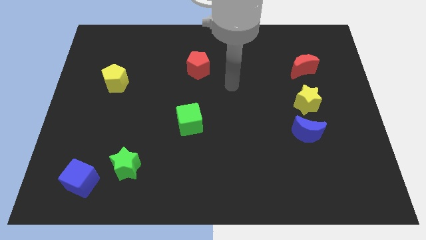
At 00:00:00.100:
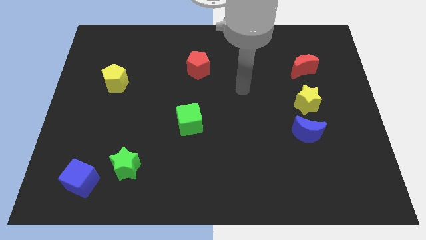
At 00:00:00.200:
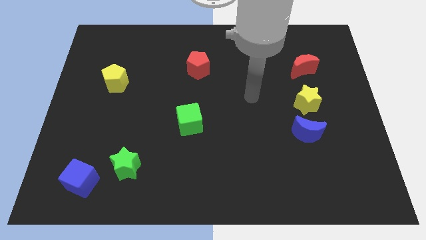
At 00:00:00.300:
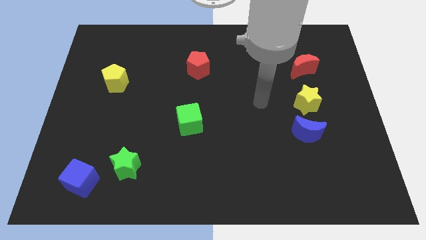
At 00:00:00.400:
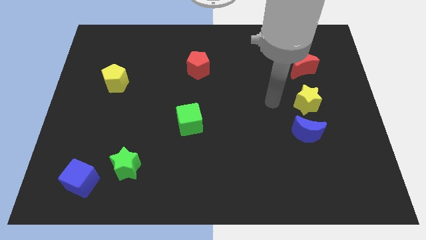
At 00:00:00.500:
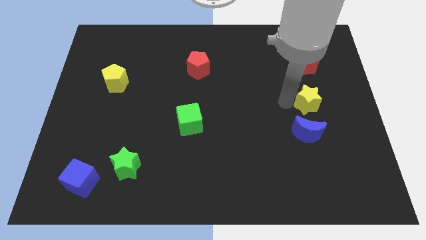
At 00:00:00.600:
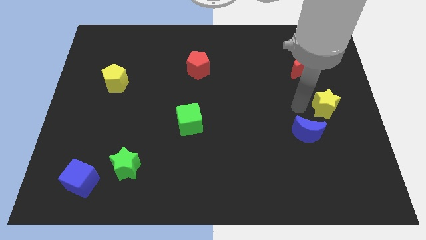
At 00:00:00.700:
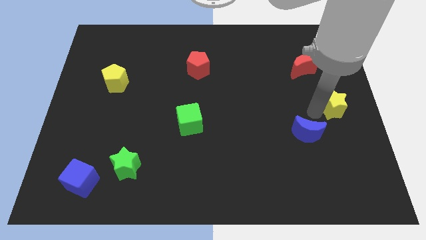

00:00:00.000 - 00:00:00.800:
move the blue moon away from the yellow star

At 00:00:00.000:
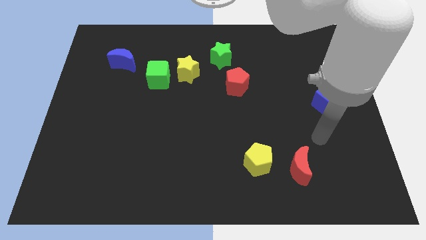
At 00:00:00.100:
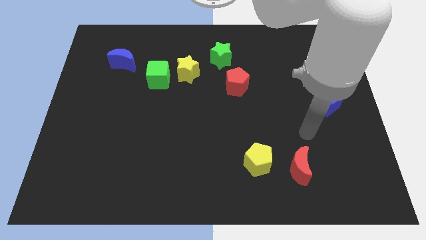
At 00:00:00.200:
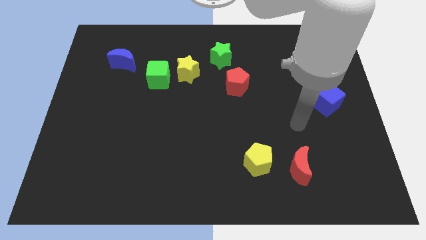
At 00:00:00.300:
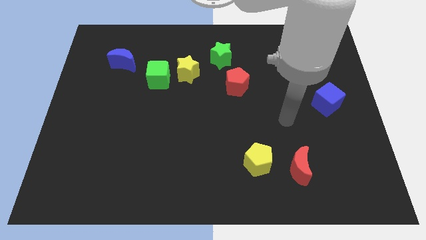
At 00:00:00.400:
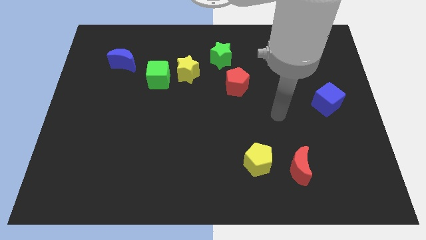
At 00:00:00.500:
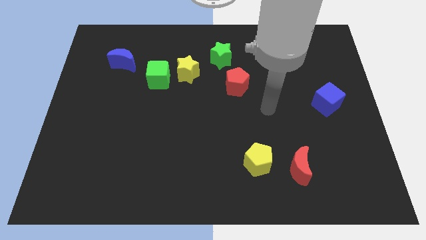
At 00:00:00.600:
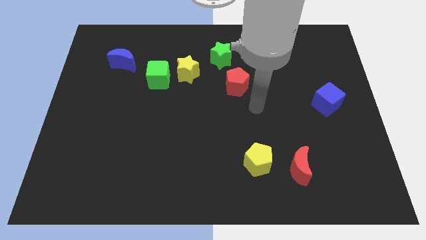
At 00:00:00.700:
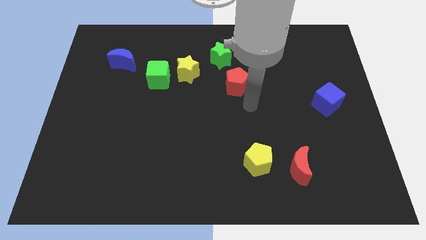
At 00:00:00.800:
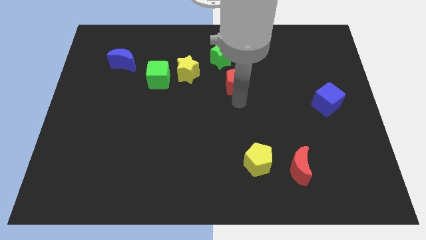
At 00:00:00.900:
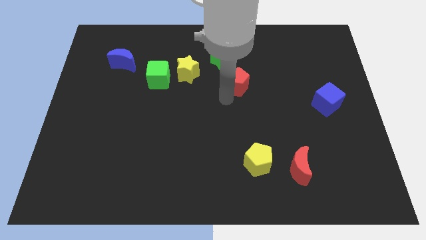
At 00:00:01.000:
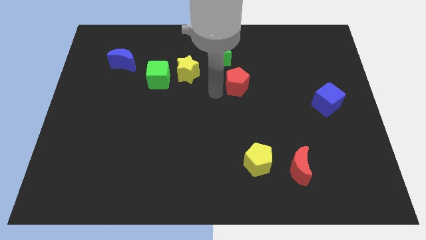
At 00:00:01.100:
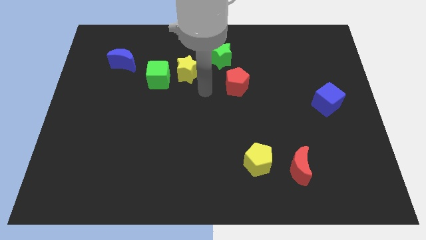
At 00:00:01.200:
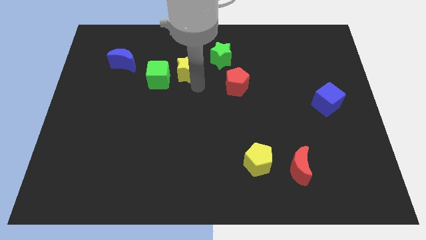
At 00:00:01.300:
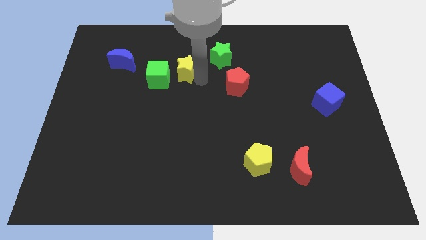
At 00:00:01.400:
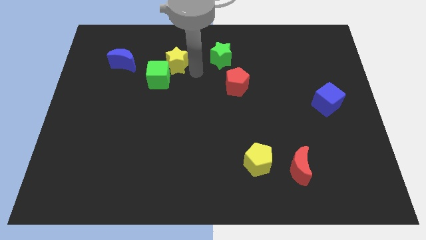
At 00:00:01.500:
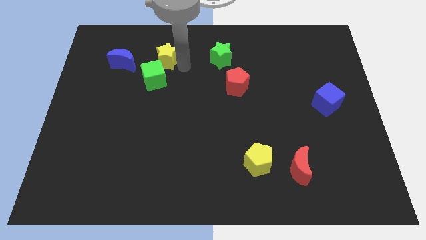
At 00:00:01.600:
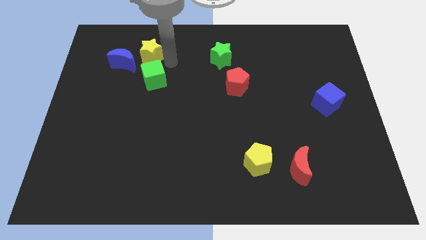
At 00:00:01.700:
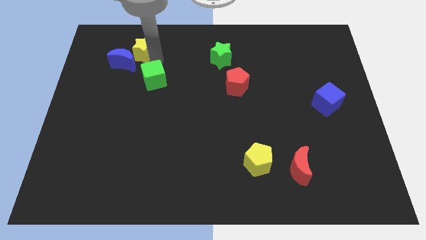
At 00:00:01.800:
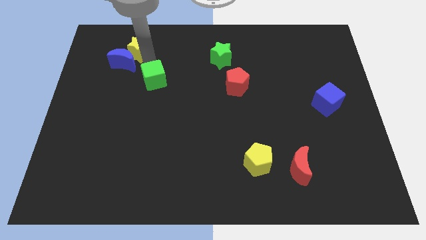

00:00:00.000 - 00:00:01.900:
move the green cube away from the yellow star

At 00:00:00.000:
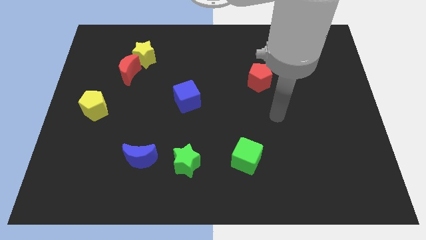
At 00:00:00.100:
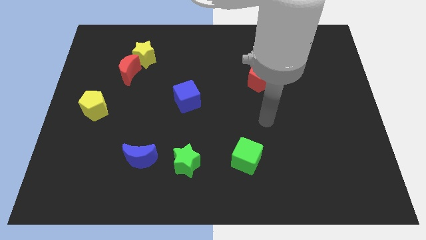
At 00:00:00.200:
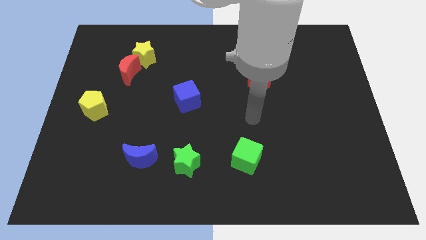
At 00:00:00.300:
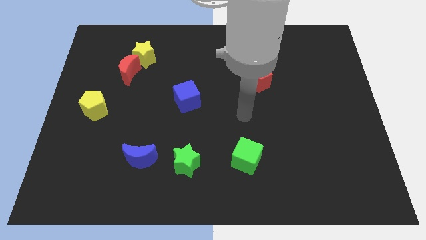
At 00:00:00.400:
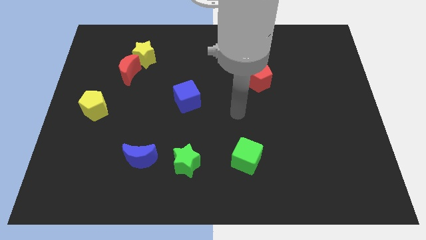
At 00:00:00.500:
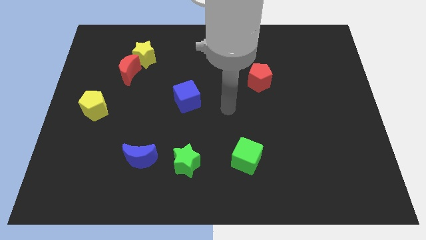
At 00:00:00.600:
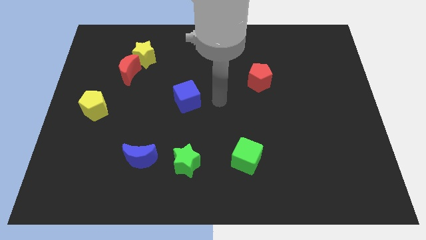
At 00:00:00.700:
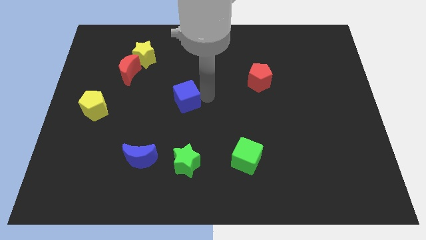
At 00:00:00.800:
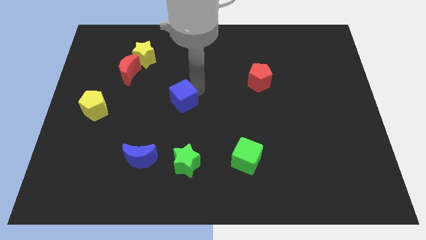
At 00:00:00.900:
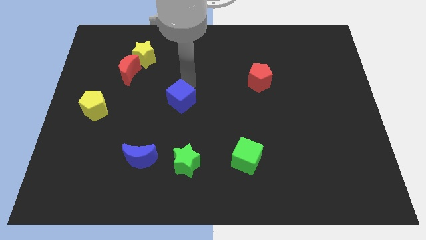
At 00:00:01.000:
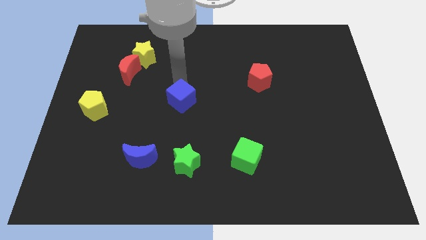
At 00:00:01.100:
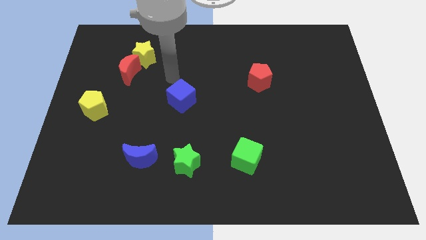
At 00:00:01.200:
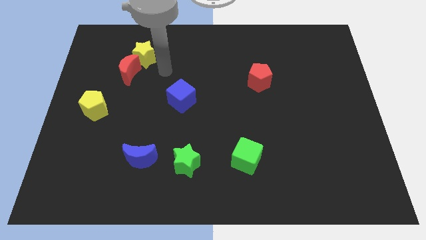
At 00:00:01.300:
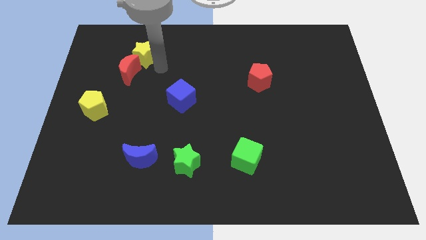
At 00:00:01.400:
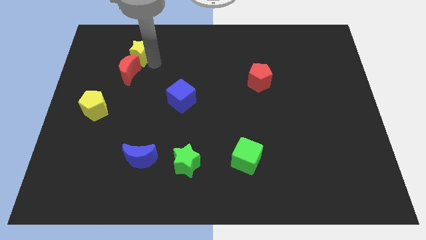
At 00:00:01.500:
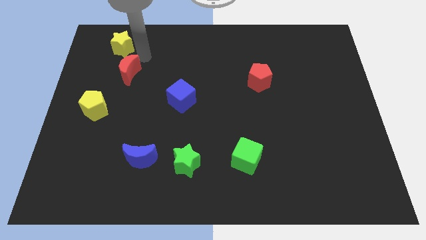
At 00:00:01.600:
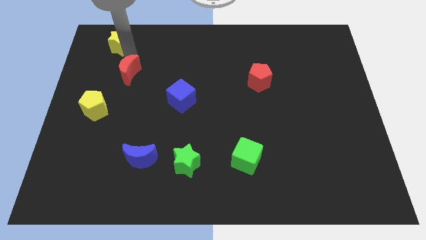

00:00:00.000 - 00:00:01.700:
separate the red moon from the yellow star

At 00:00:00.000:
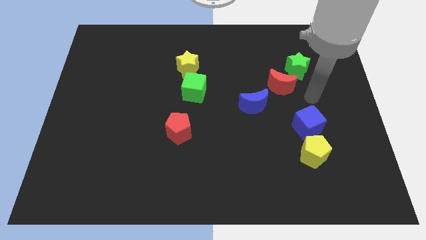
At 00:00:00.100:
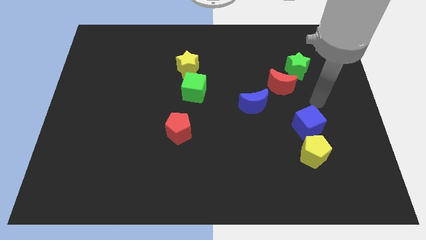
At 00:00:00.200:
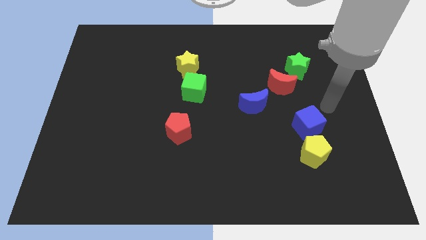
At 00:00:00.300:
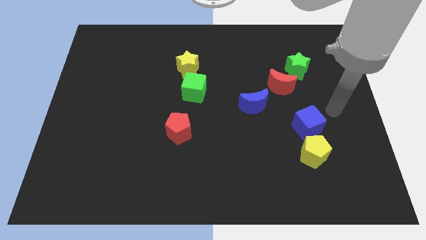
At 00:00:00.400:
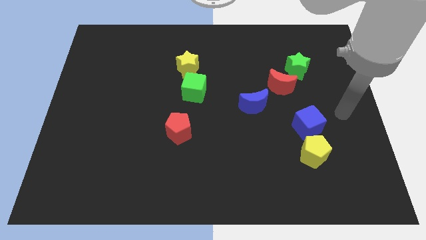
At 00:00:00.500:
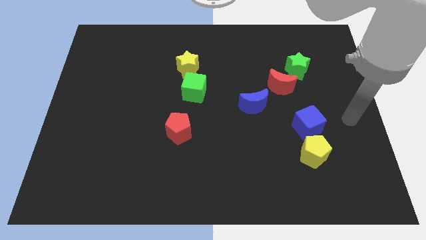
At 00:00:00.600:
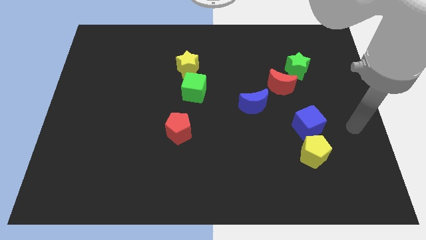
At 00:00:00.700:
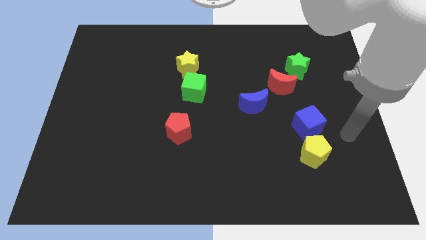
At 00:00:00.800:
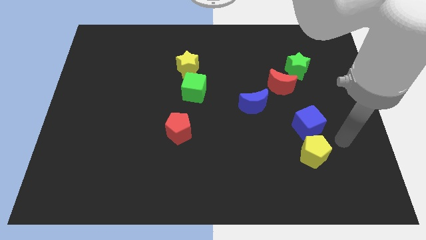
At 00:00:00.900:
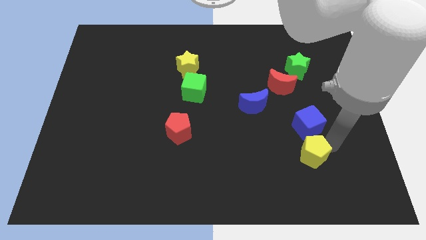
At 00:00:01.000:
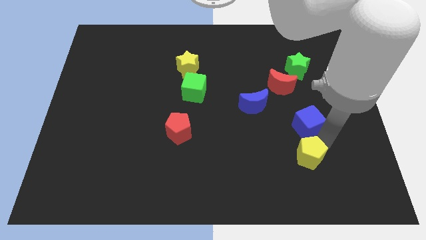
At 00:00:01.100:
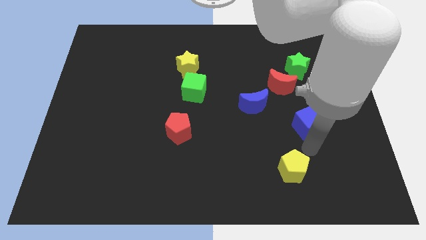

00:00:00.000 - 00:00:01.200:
separate the blue cube from the yellow pentagon

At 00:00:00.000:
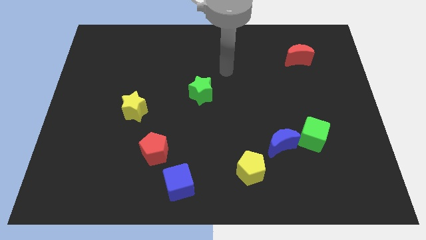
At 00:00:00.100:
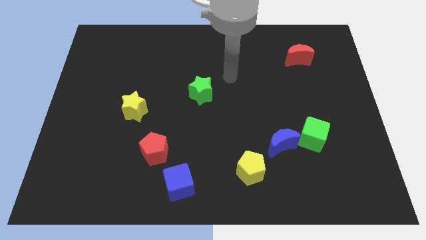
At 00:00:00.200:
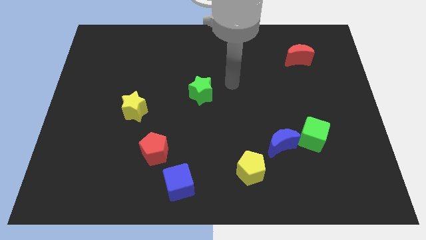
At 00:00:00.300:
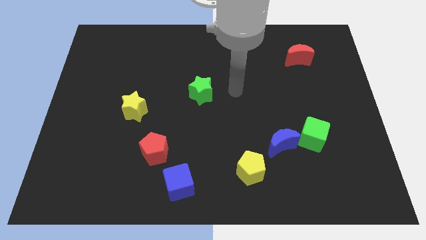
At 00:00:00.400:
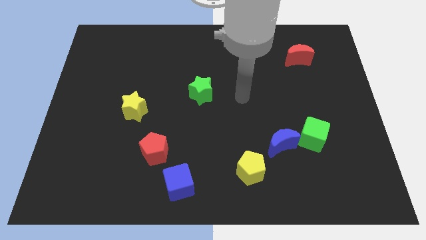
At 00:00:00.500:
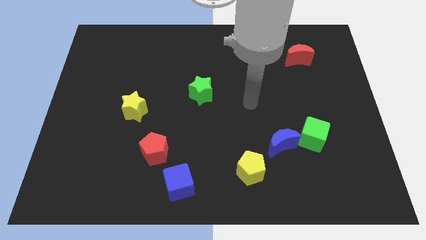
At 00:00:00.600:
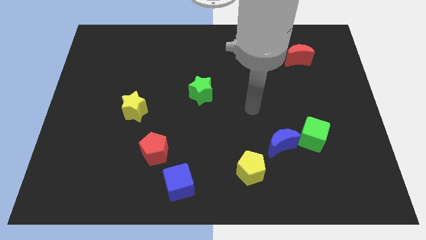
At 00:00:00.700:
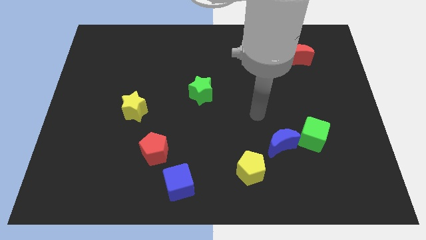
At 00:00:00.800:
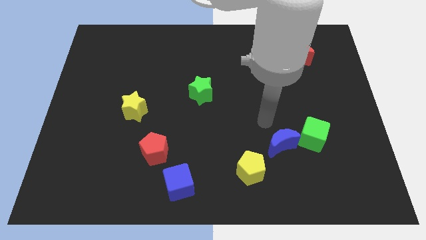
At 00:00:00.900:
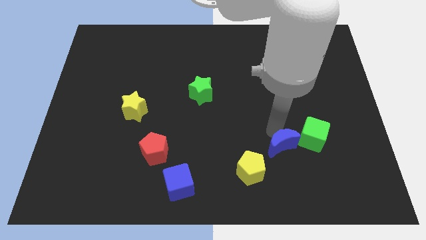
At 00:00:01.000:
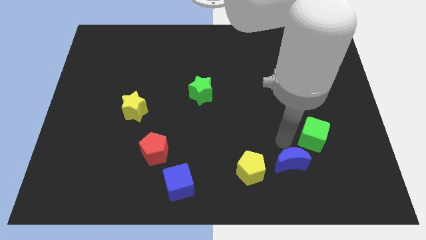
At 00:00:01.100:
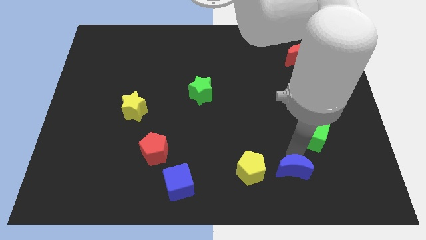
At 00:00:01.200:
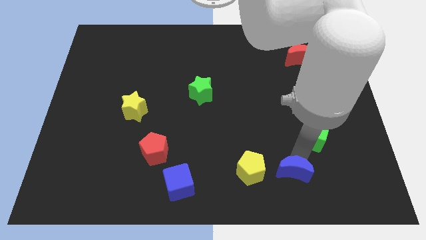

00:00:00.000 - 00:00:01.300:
move the green cube away from the blue moon

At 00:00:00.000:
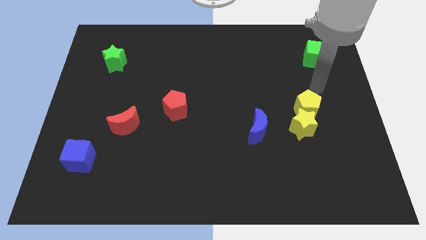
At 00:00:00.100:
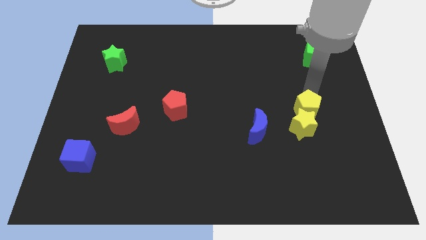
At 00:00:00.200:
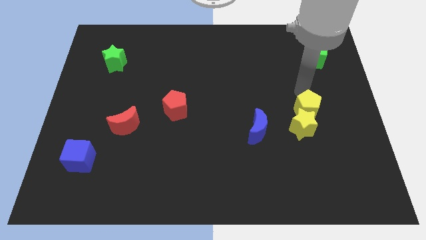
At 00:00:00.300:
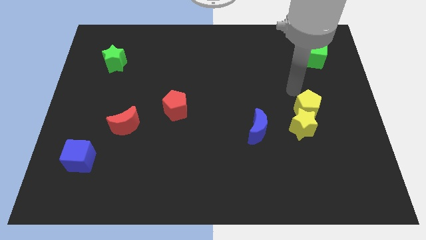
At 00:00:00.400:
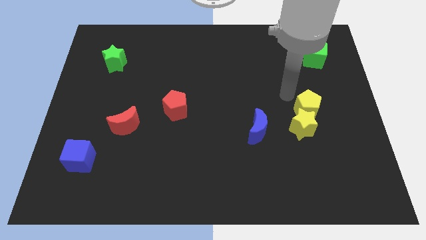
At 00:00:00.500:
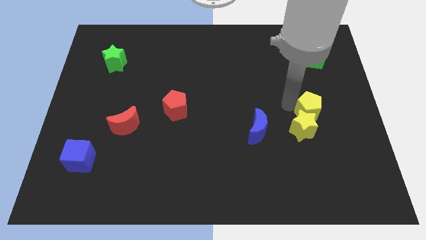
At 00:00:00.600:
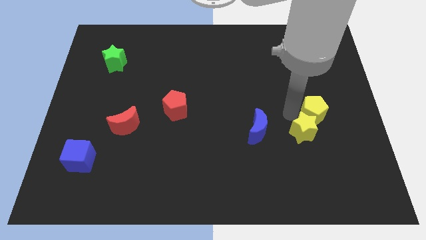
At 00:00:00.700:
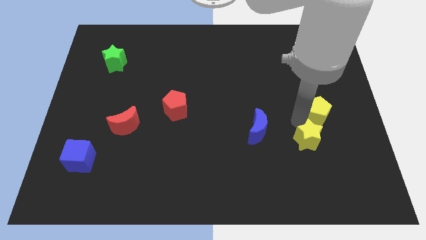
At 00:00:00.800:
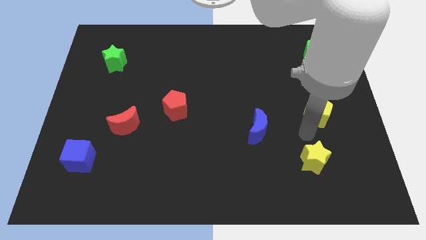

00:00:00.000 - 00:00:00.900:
separate the yellow pentagon from the yellow star

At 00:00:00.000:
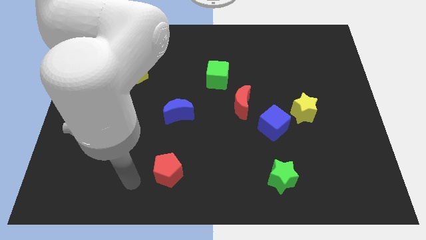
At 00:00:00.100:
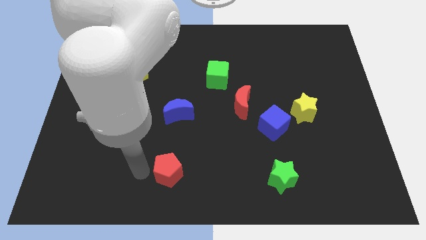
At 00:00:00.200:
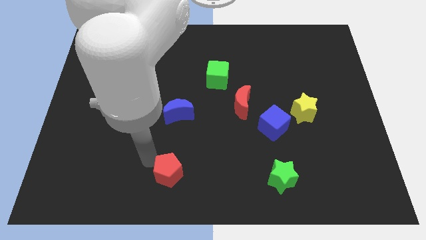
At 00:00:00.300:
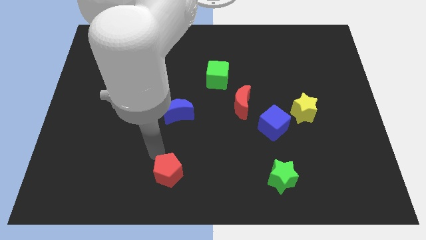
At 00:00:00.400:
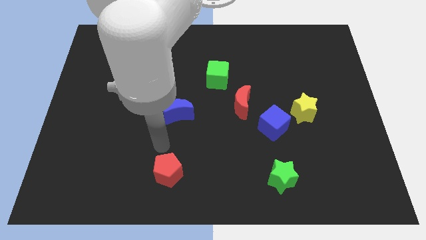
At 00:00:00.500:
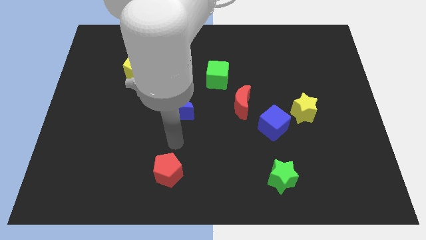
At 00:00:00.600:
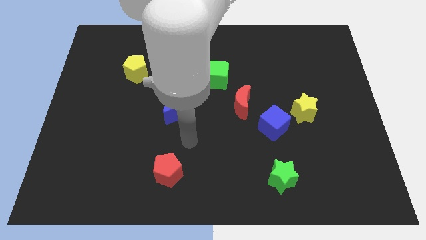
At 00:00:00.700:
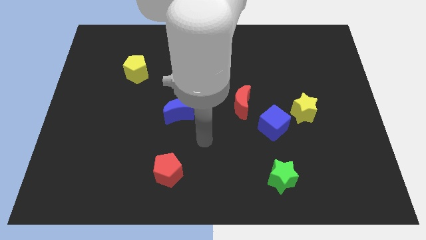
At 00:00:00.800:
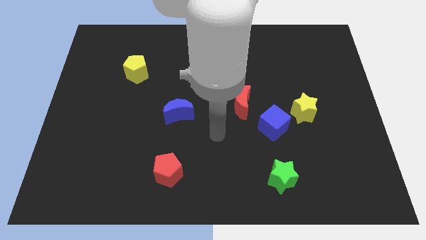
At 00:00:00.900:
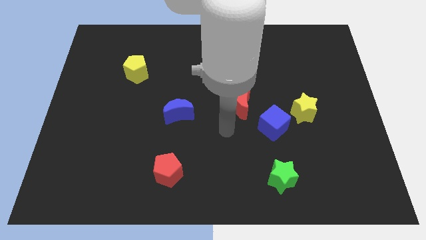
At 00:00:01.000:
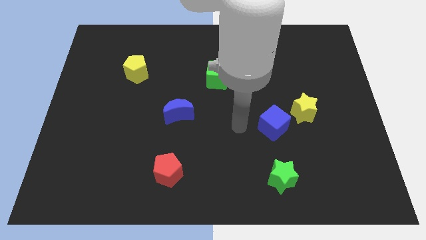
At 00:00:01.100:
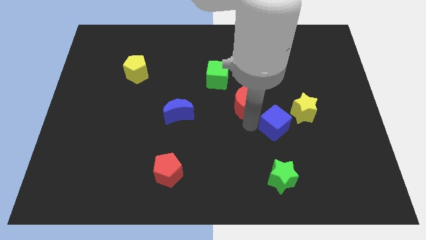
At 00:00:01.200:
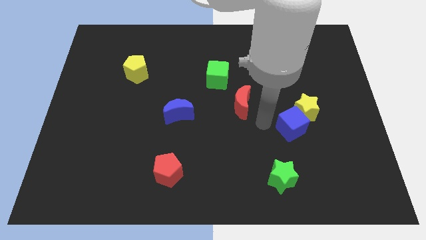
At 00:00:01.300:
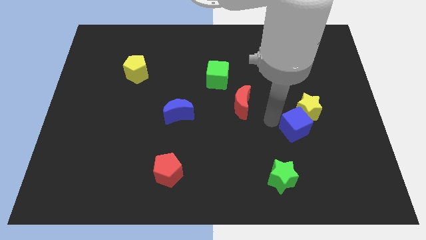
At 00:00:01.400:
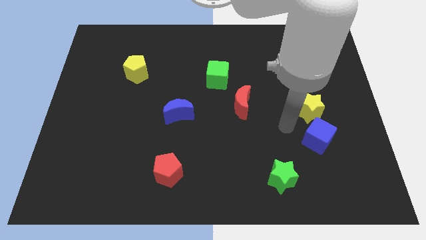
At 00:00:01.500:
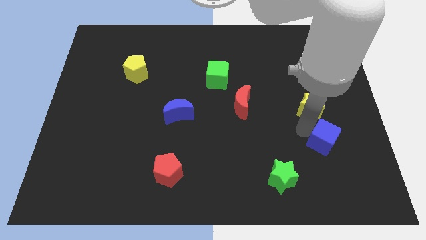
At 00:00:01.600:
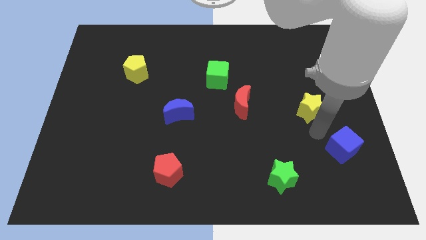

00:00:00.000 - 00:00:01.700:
separate the yellow star from the blue cube
